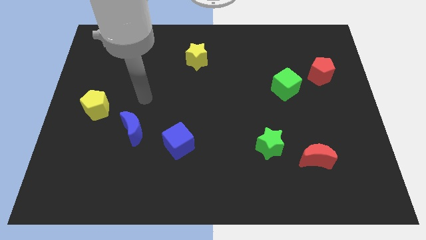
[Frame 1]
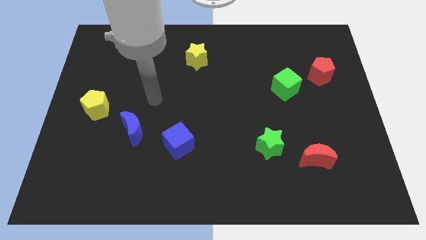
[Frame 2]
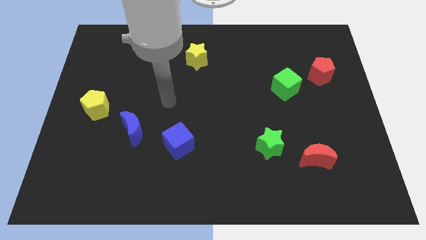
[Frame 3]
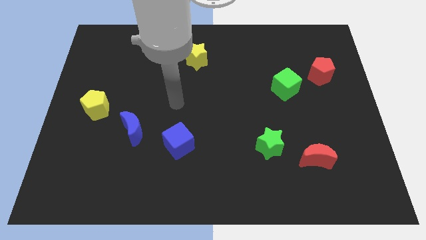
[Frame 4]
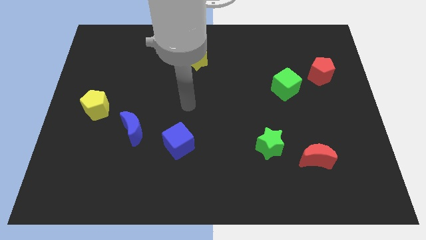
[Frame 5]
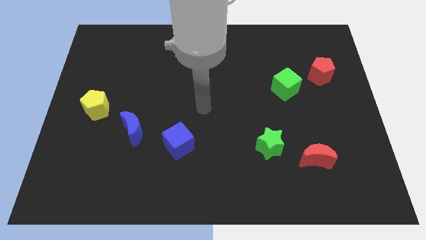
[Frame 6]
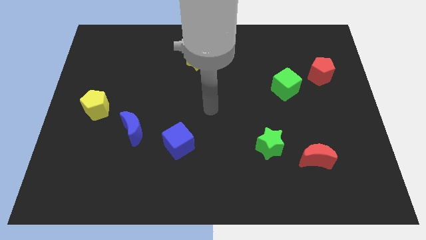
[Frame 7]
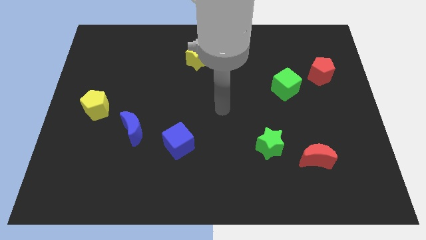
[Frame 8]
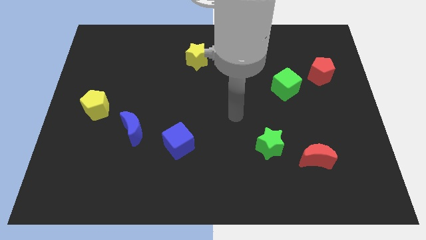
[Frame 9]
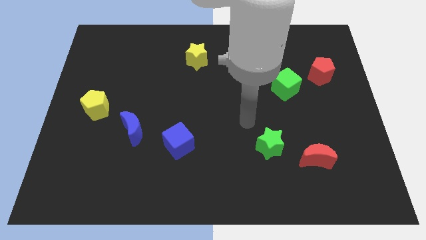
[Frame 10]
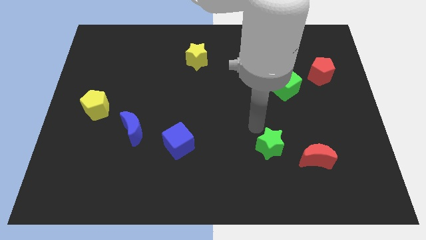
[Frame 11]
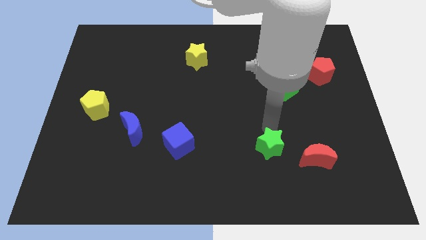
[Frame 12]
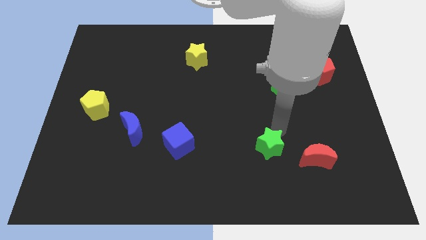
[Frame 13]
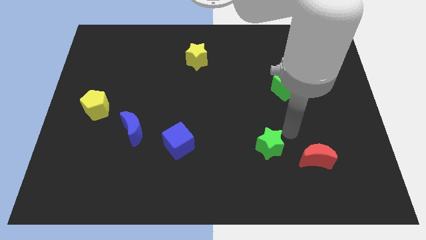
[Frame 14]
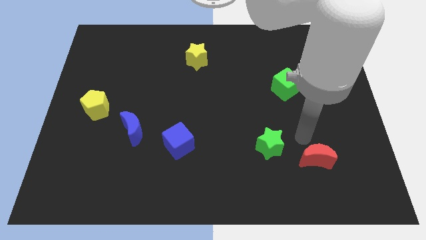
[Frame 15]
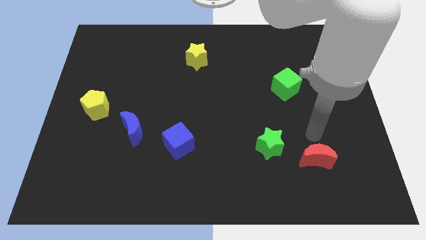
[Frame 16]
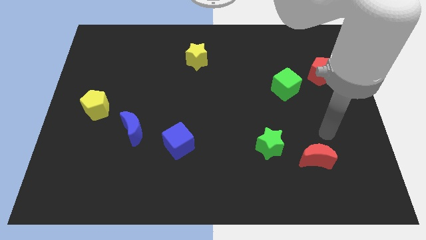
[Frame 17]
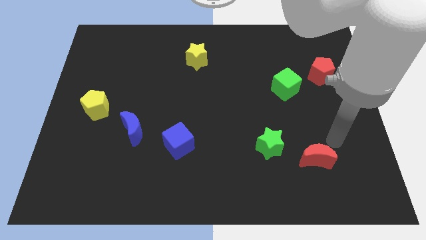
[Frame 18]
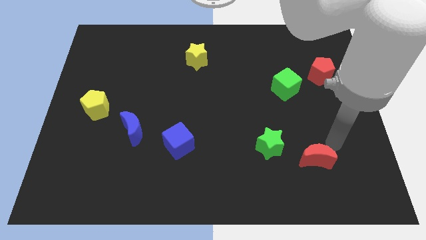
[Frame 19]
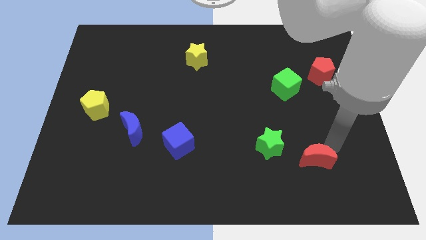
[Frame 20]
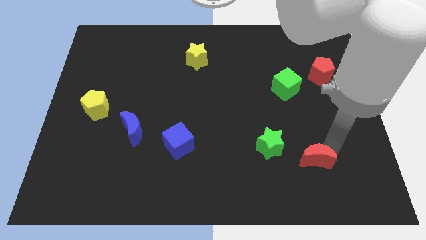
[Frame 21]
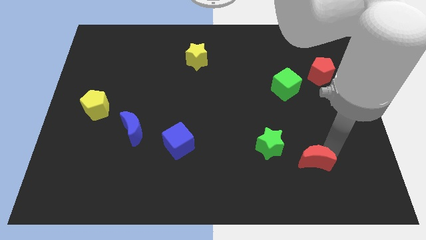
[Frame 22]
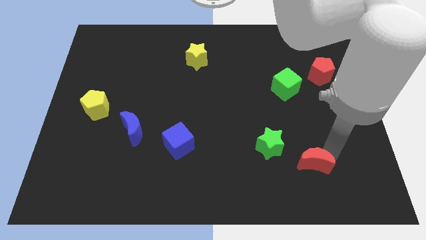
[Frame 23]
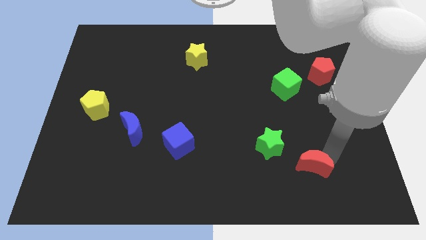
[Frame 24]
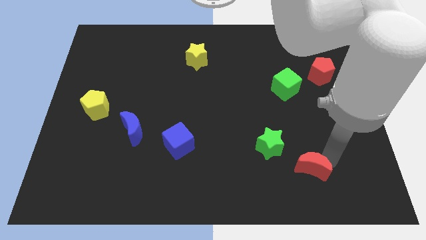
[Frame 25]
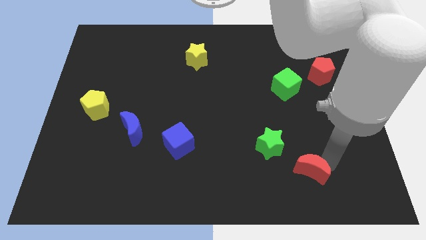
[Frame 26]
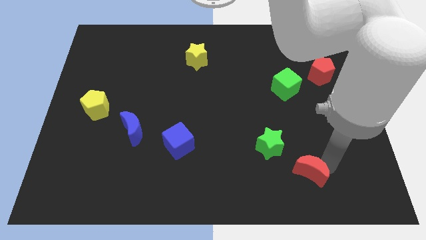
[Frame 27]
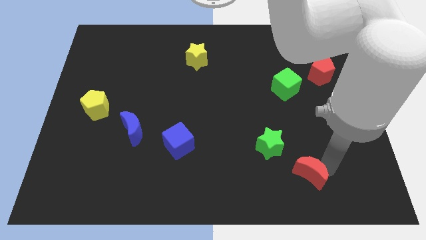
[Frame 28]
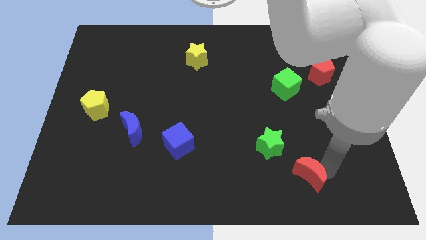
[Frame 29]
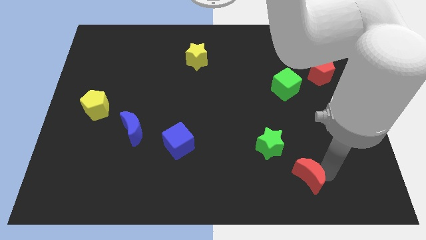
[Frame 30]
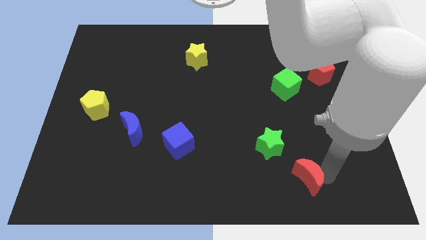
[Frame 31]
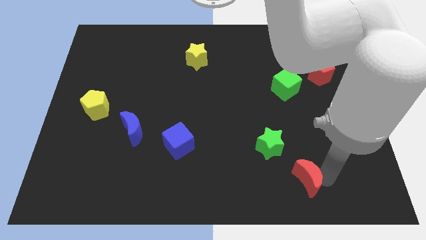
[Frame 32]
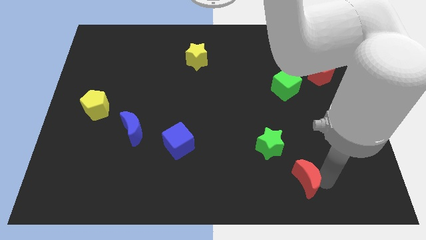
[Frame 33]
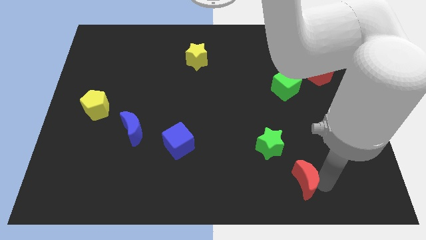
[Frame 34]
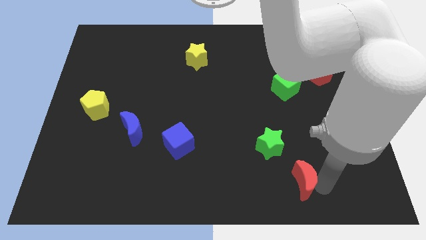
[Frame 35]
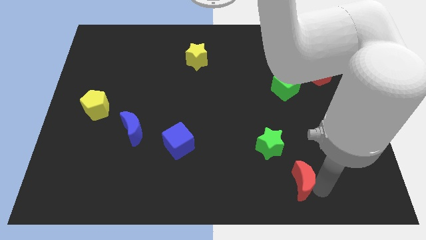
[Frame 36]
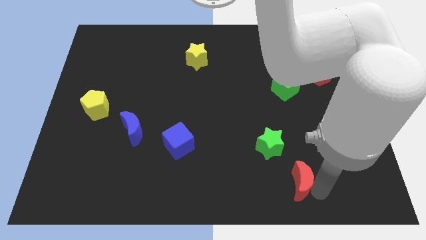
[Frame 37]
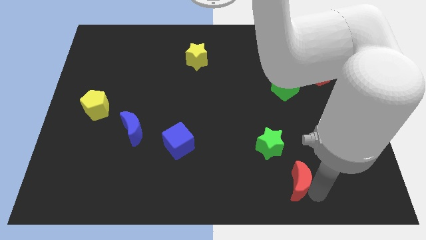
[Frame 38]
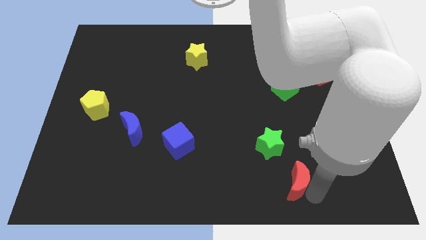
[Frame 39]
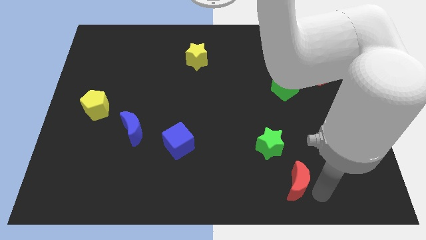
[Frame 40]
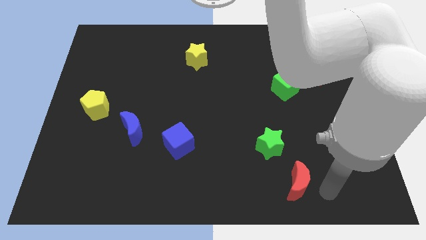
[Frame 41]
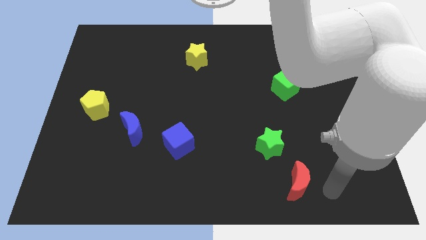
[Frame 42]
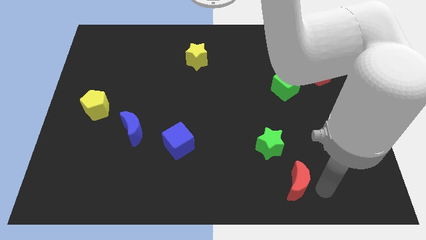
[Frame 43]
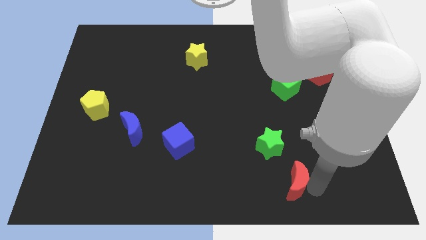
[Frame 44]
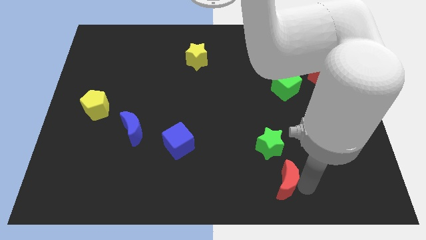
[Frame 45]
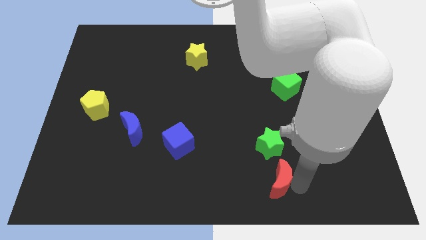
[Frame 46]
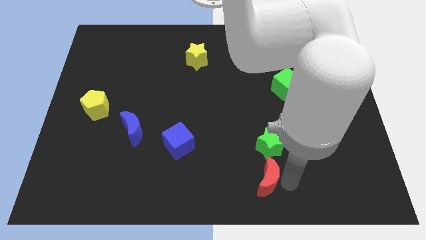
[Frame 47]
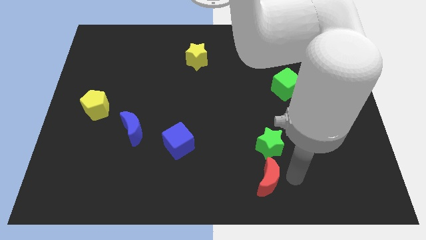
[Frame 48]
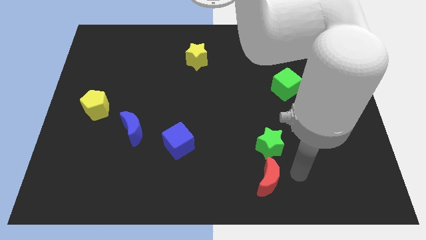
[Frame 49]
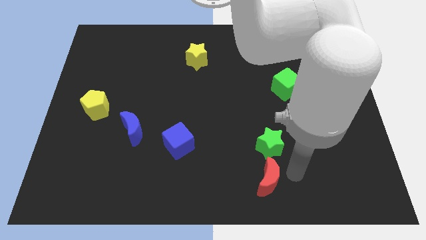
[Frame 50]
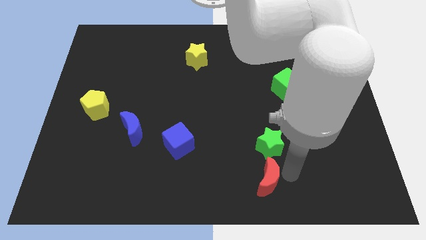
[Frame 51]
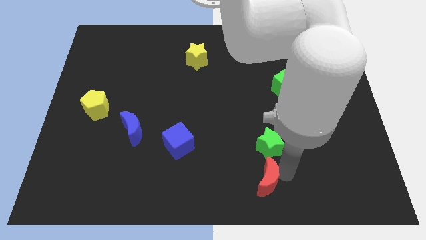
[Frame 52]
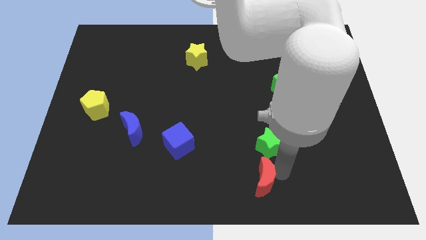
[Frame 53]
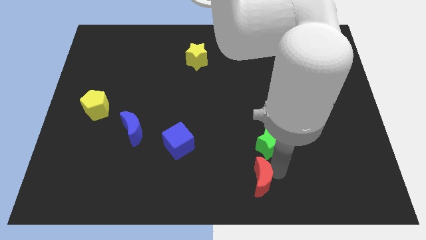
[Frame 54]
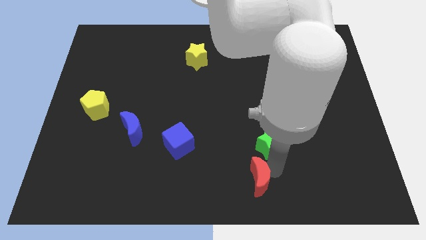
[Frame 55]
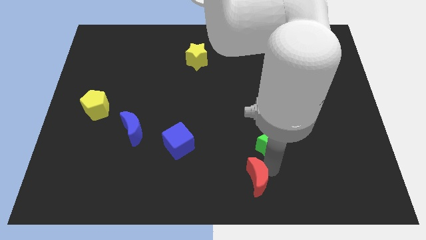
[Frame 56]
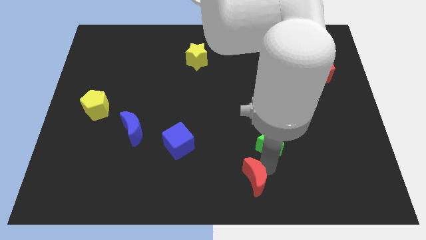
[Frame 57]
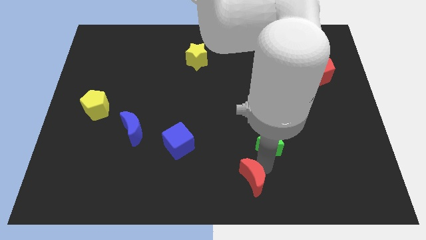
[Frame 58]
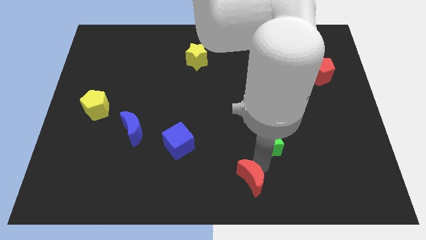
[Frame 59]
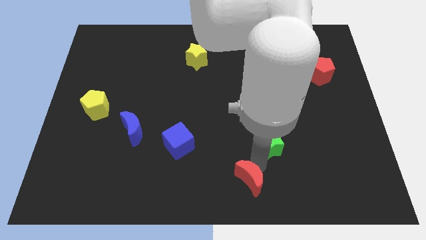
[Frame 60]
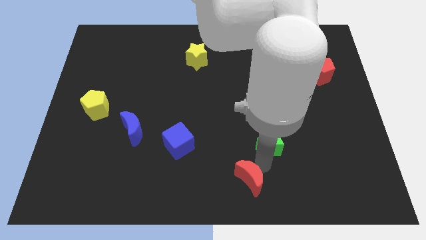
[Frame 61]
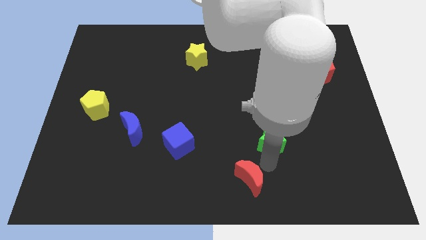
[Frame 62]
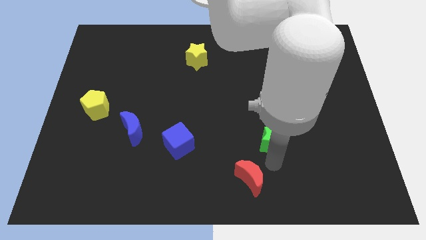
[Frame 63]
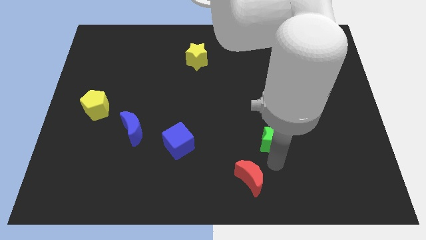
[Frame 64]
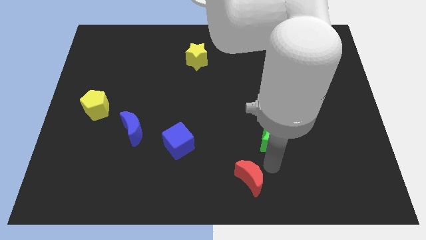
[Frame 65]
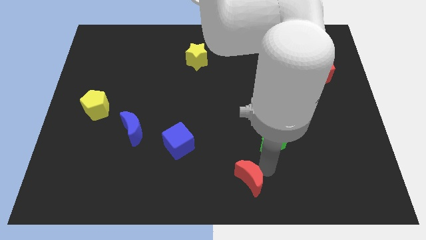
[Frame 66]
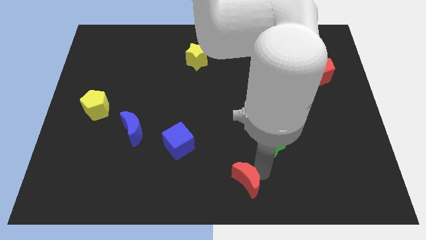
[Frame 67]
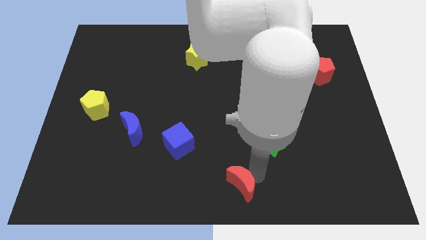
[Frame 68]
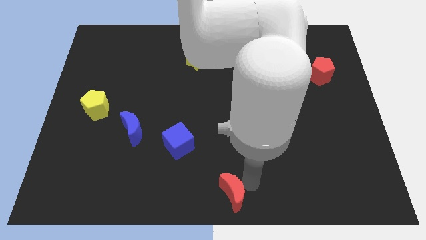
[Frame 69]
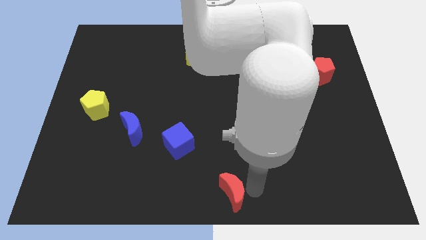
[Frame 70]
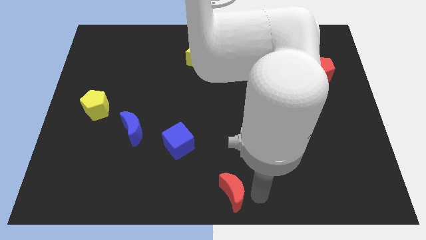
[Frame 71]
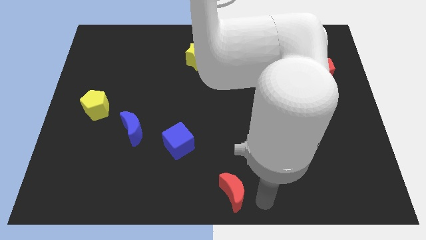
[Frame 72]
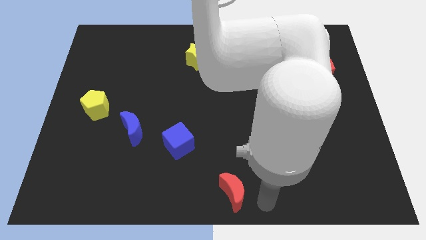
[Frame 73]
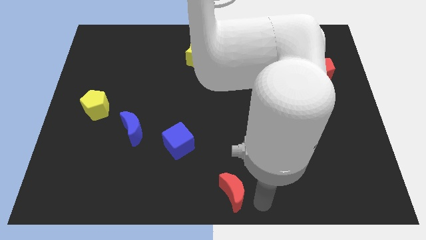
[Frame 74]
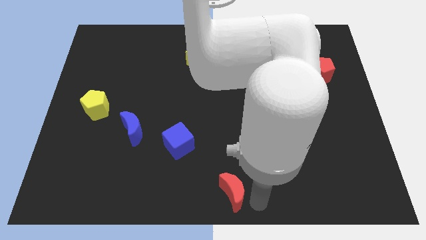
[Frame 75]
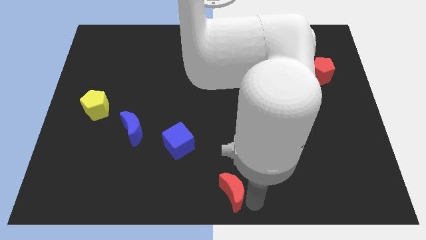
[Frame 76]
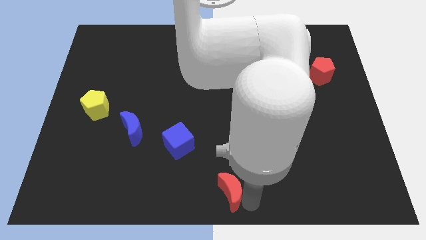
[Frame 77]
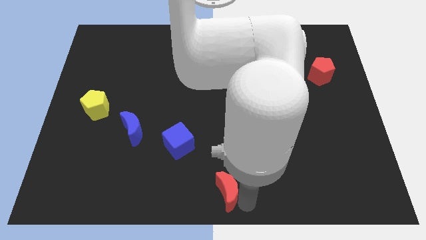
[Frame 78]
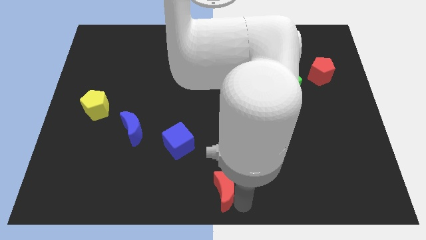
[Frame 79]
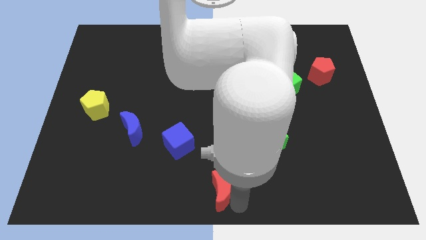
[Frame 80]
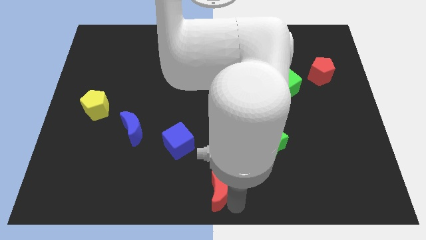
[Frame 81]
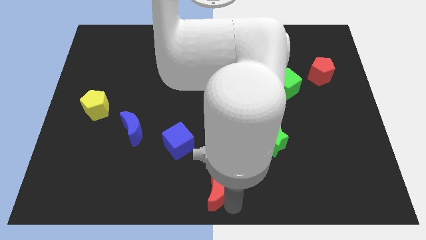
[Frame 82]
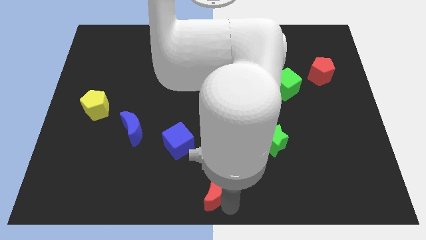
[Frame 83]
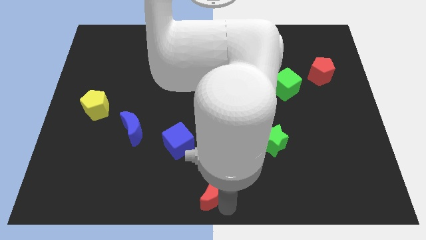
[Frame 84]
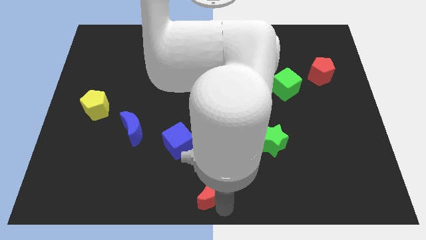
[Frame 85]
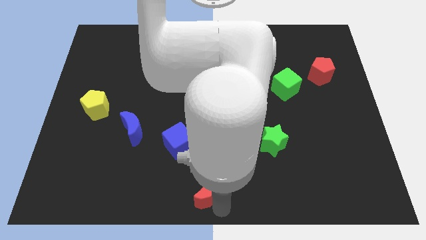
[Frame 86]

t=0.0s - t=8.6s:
slide the red moon left
